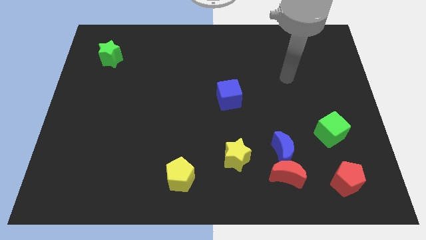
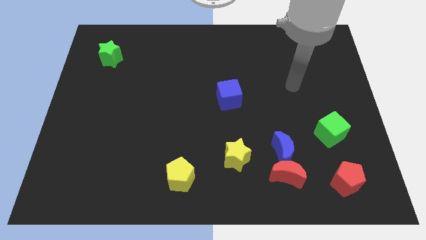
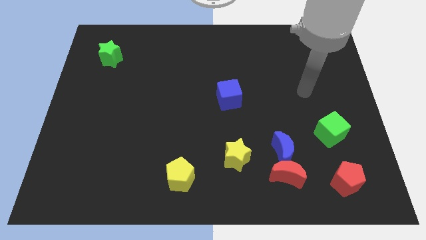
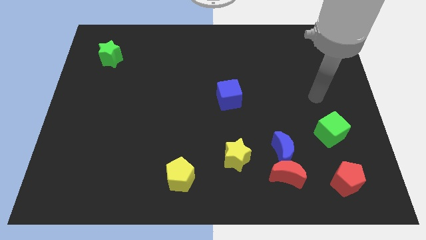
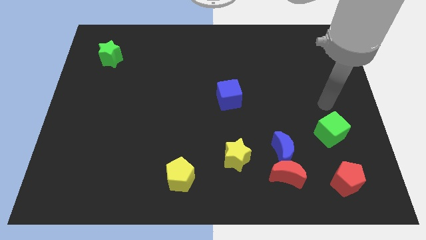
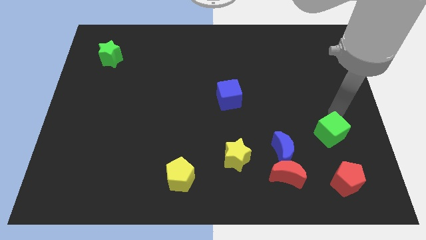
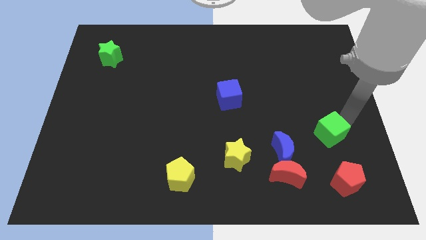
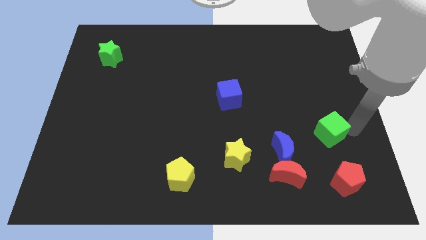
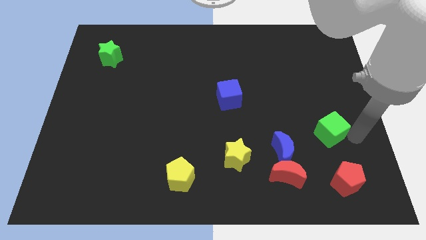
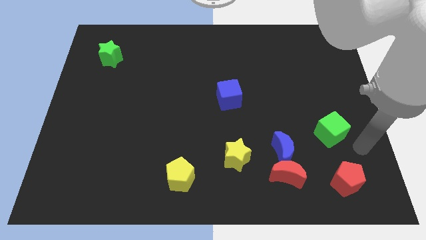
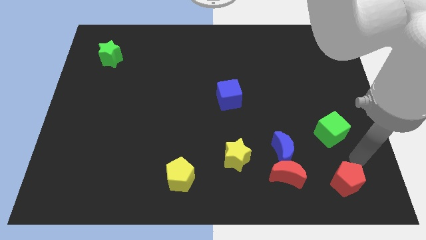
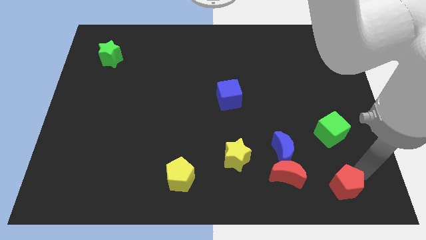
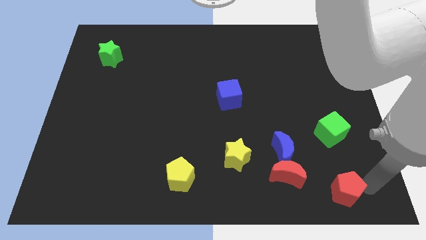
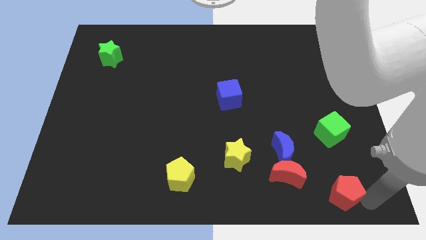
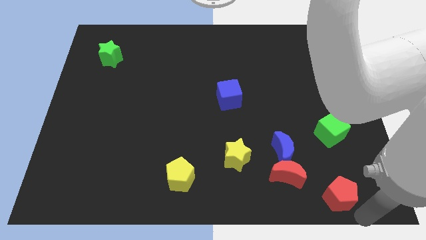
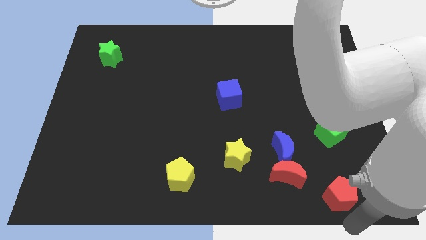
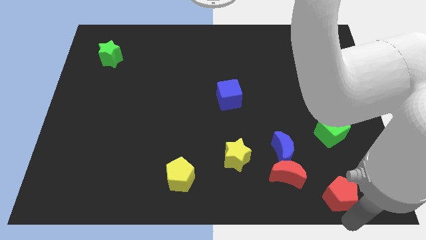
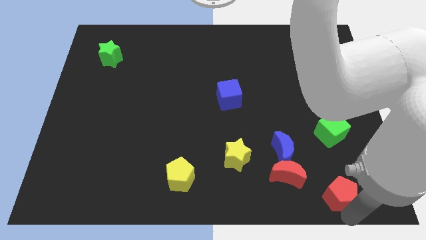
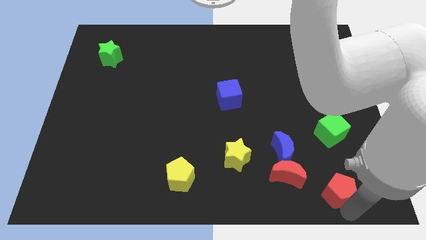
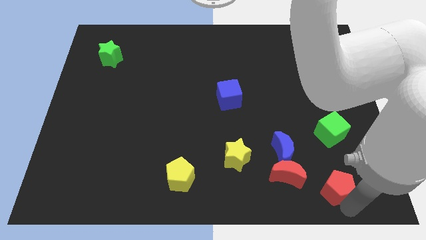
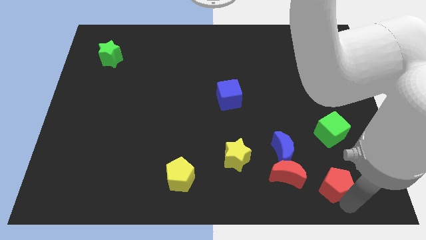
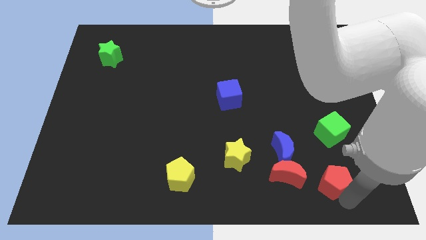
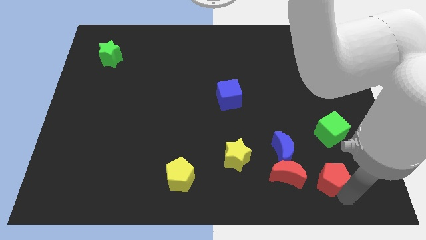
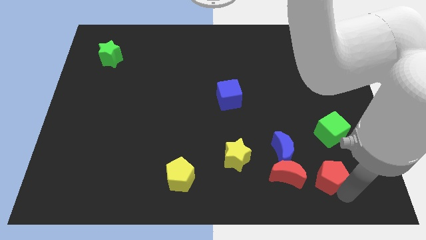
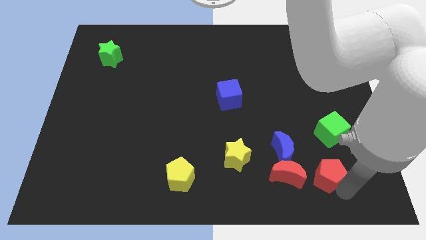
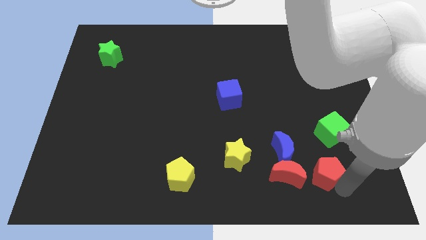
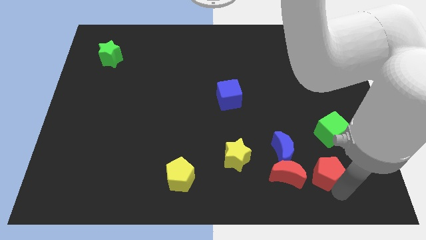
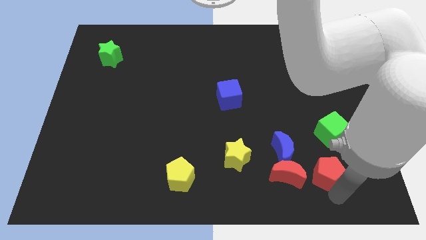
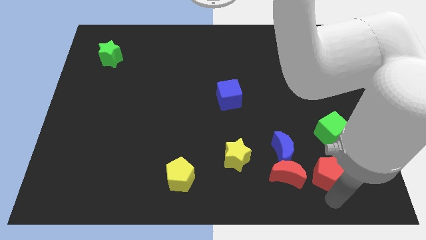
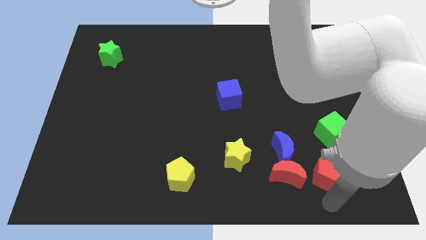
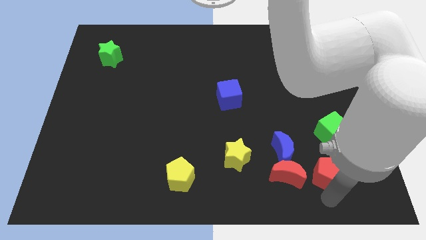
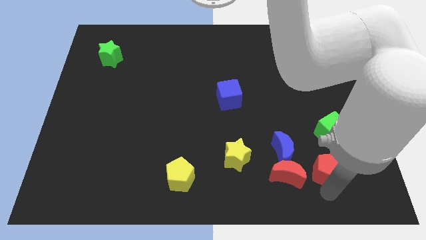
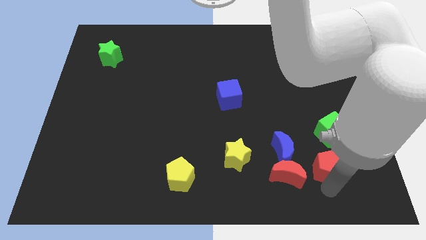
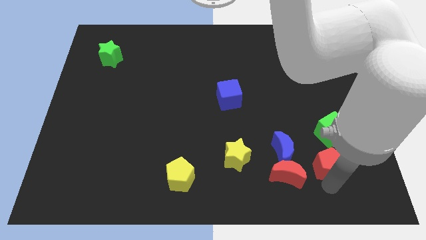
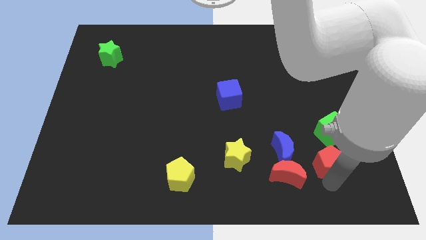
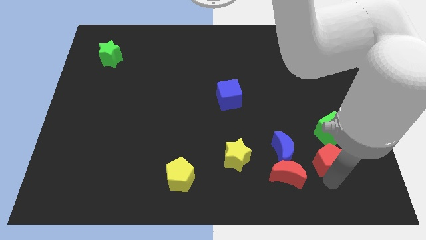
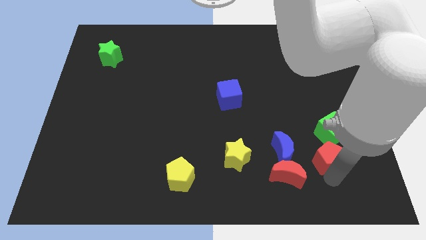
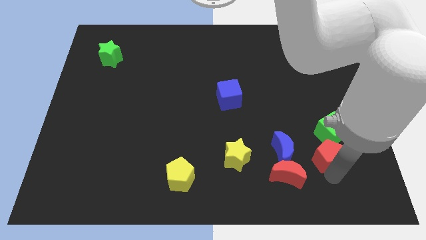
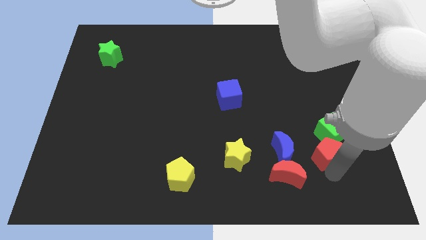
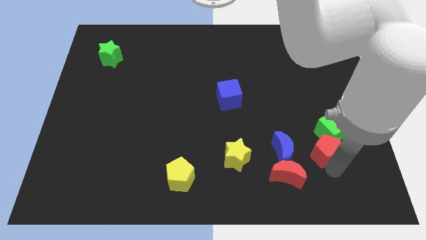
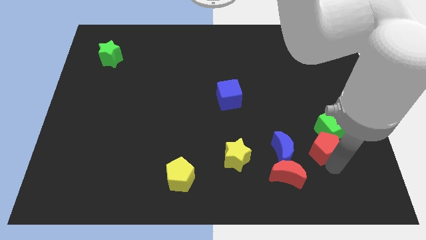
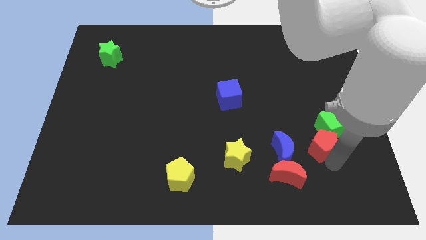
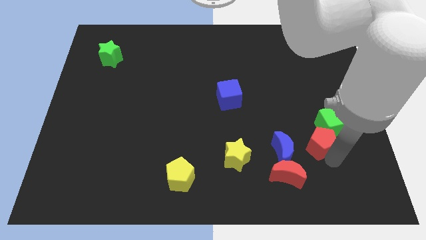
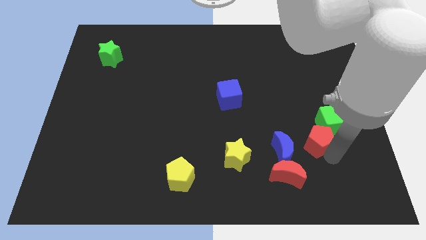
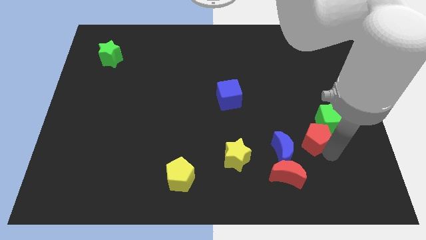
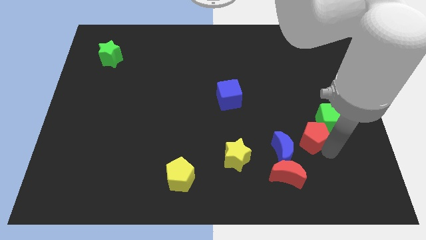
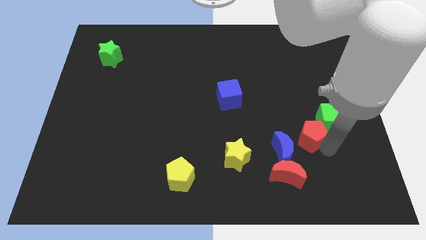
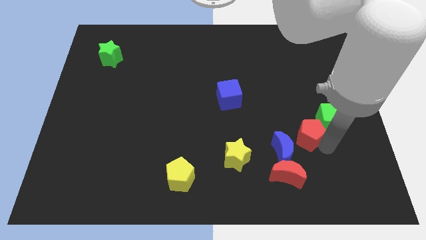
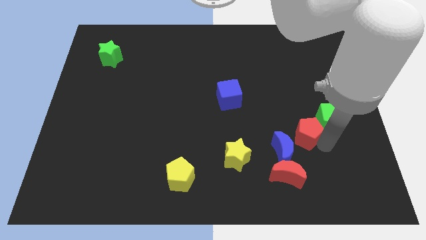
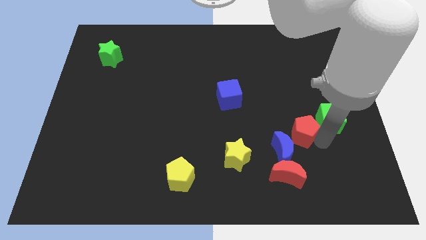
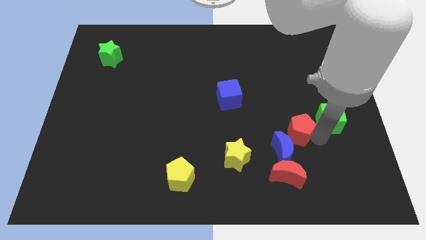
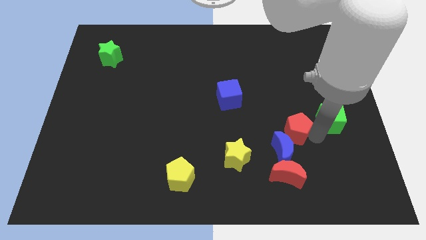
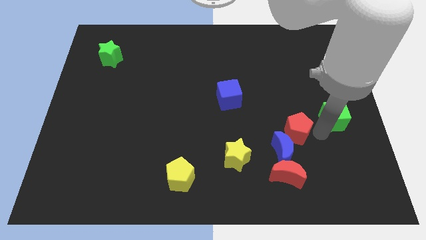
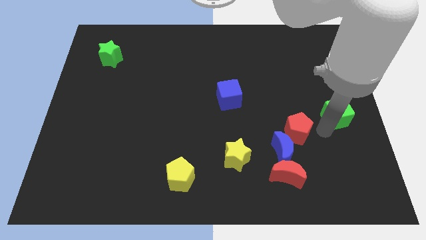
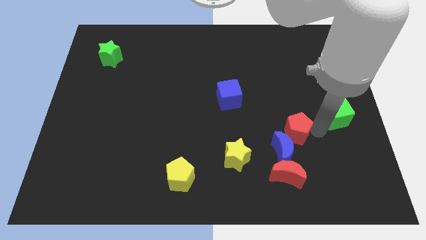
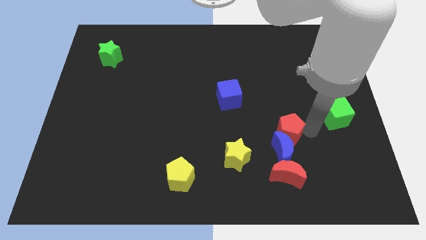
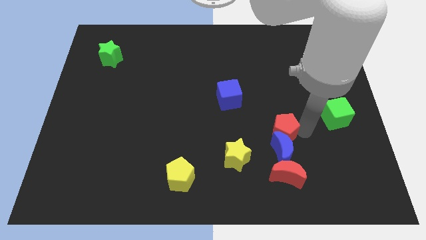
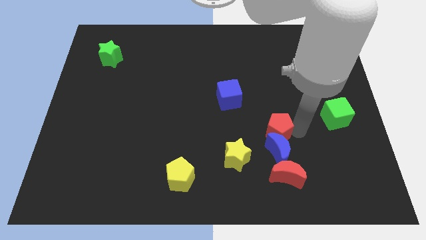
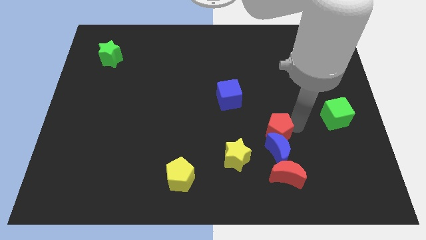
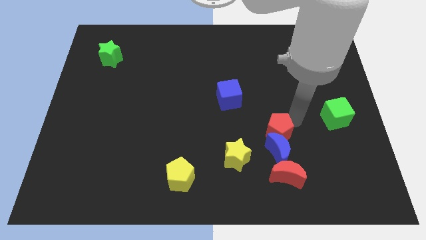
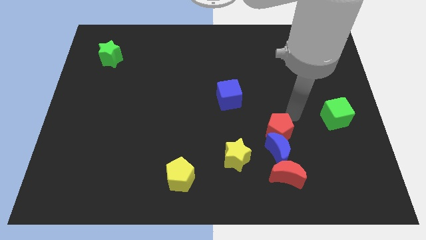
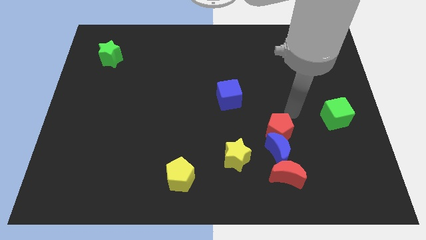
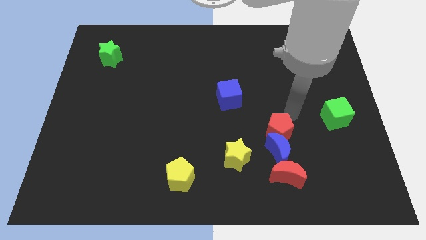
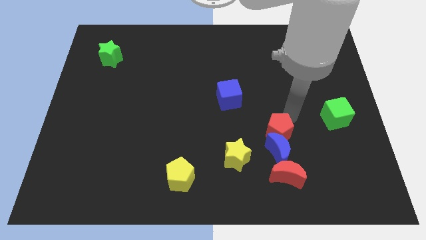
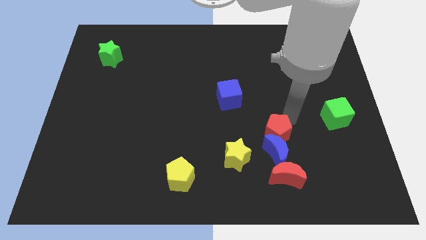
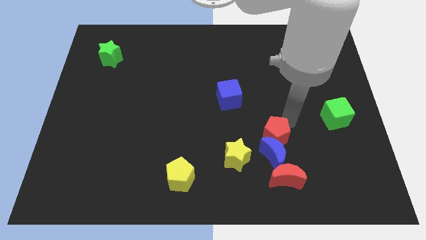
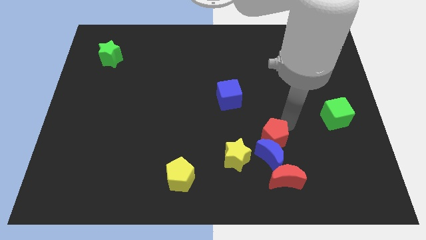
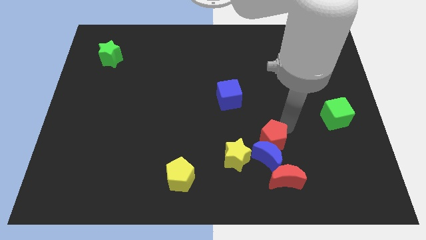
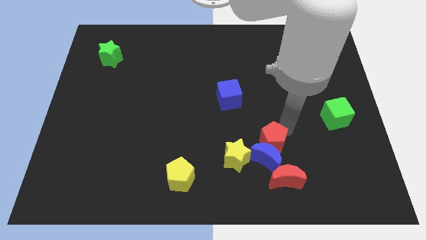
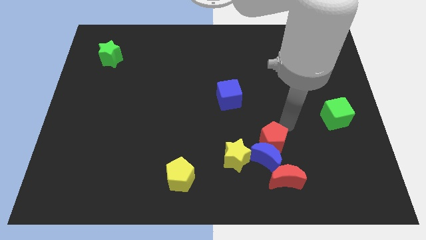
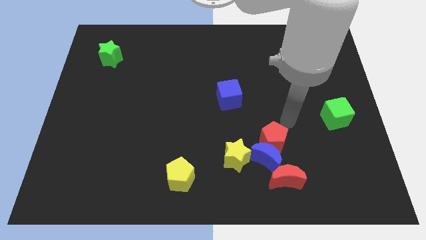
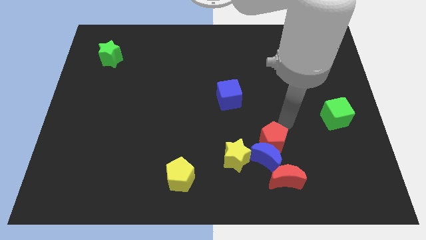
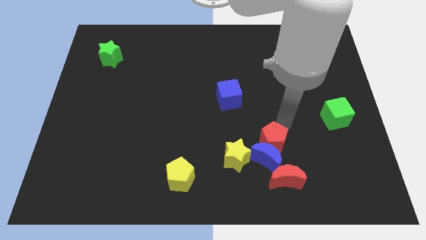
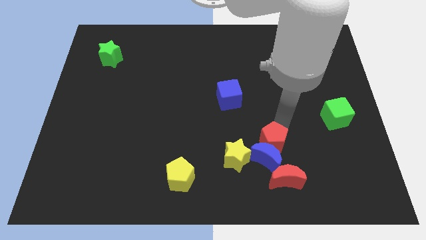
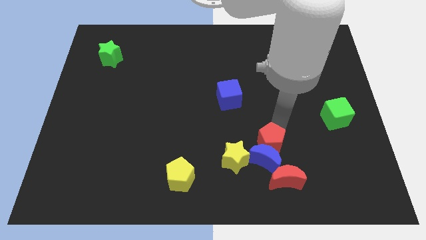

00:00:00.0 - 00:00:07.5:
move the red pentagon diagonally up and to the left of the red moon
